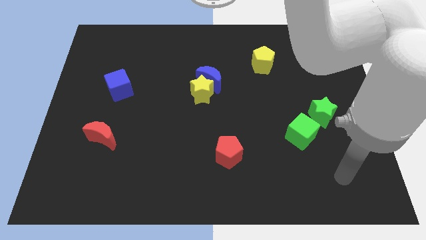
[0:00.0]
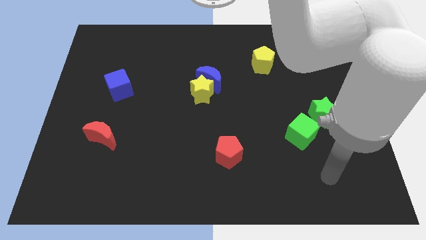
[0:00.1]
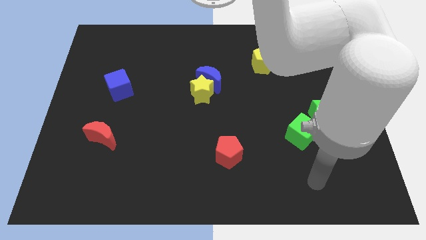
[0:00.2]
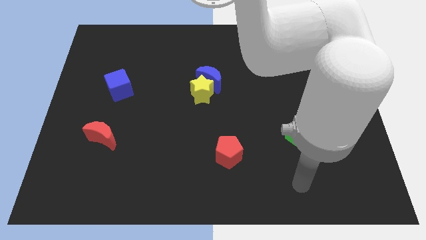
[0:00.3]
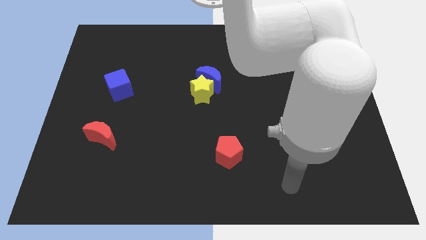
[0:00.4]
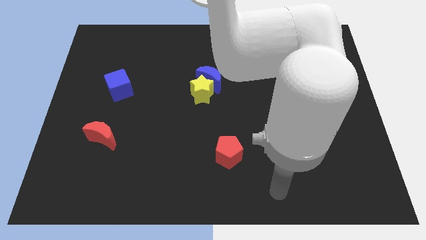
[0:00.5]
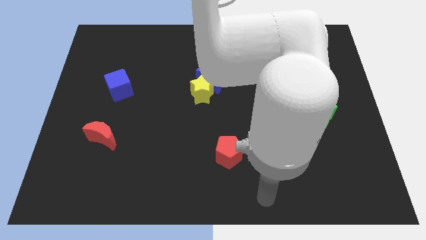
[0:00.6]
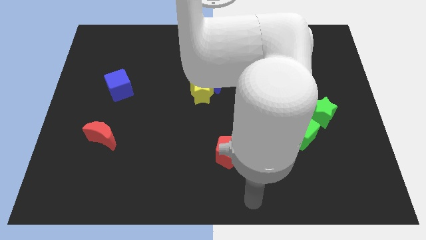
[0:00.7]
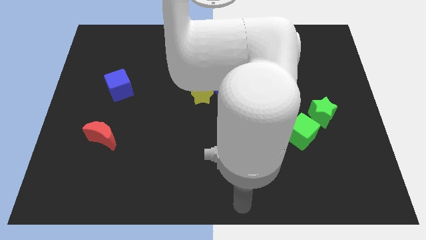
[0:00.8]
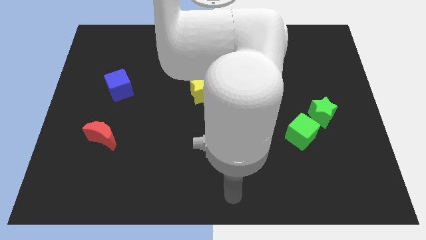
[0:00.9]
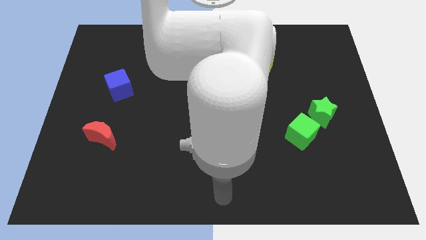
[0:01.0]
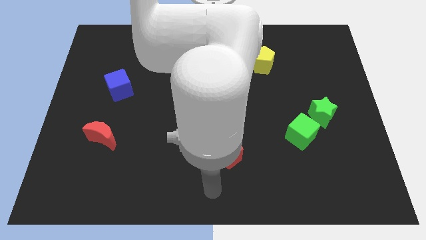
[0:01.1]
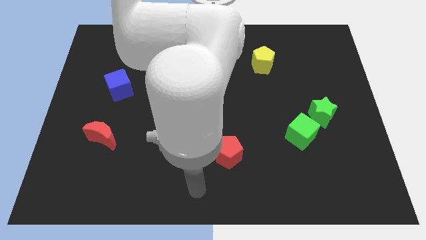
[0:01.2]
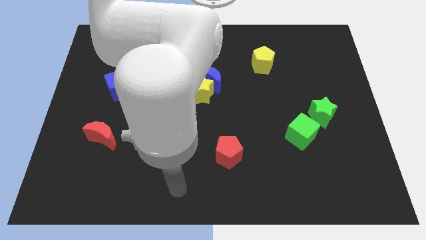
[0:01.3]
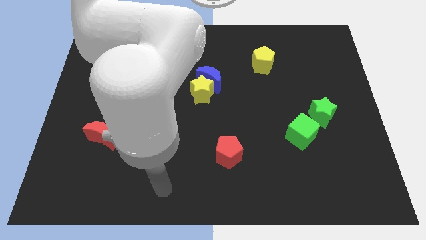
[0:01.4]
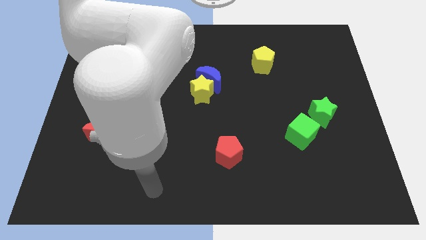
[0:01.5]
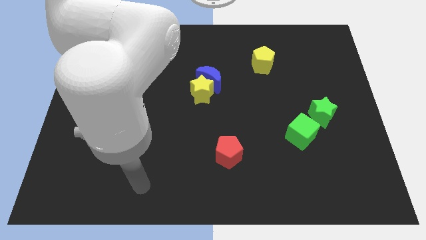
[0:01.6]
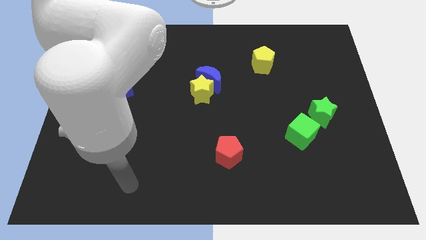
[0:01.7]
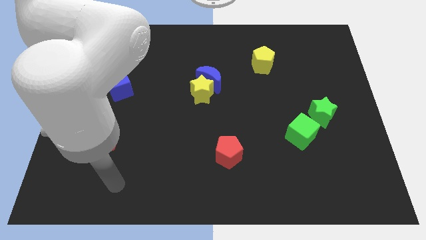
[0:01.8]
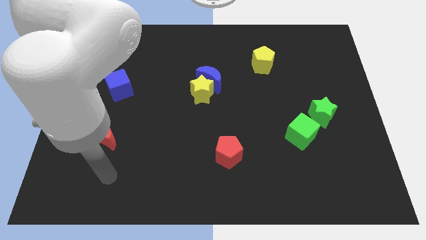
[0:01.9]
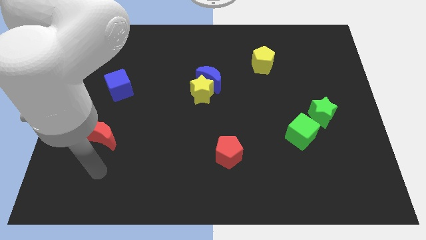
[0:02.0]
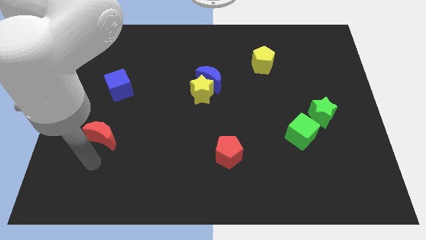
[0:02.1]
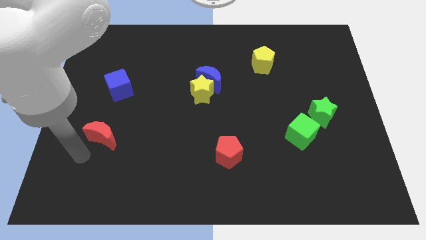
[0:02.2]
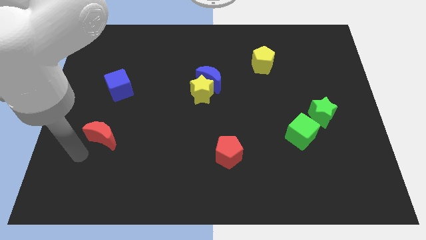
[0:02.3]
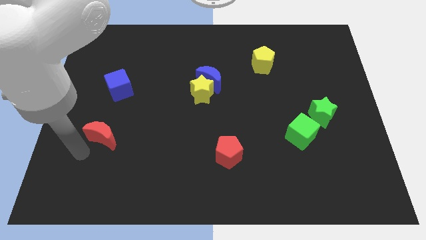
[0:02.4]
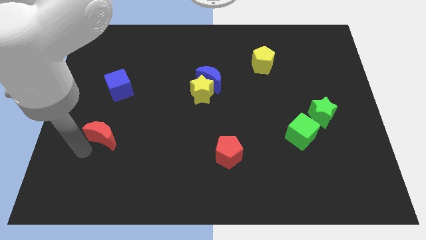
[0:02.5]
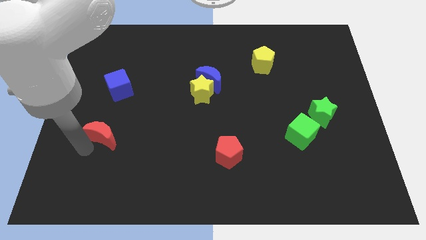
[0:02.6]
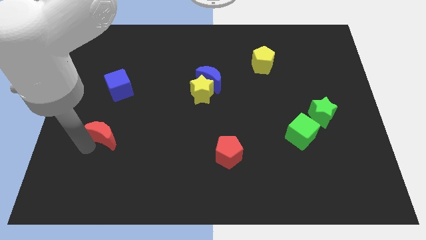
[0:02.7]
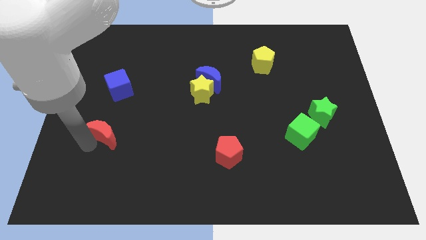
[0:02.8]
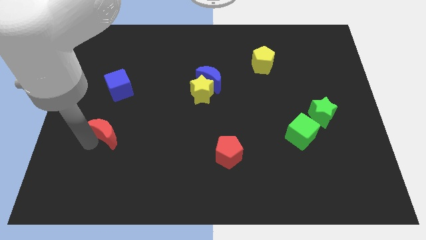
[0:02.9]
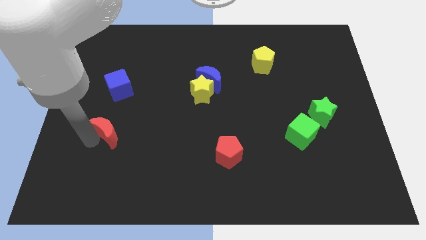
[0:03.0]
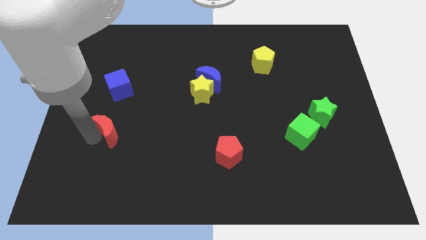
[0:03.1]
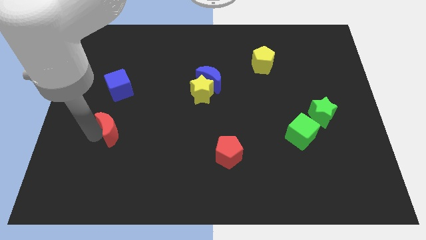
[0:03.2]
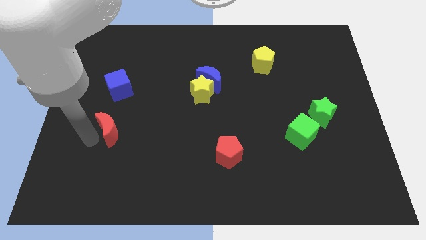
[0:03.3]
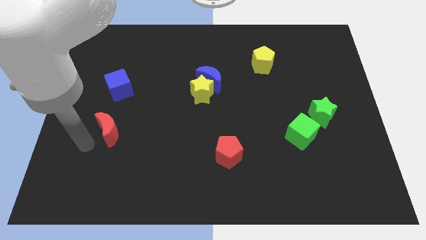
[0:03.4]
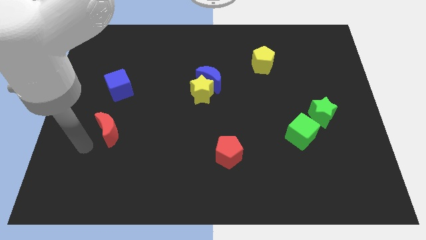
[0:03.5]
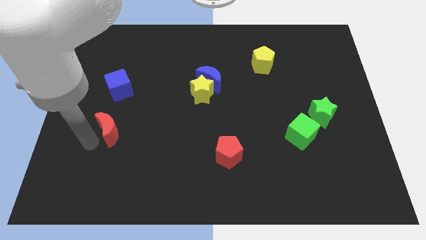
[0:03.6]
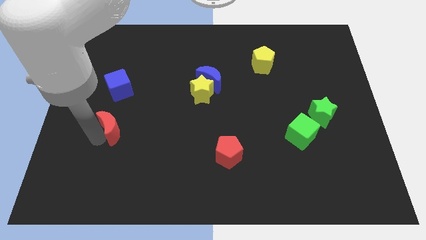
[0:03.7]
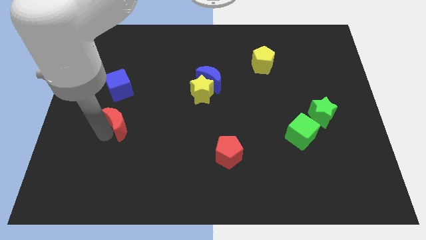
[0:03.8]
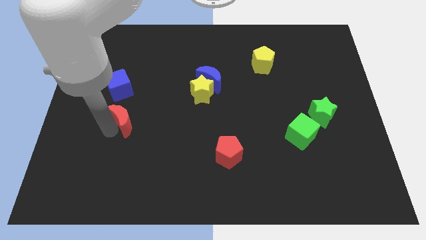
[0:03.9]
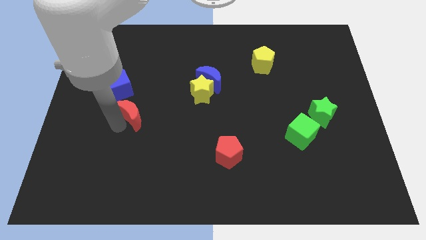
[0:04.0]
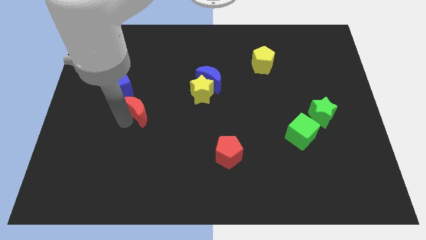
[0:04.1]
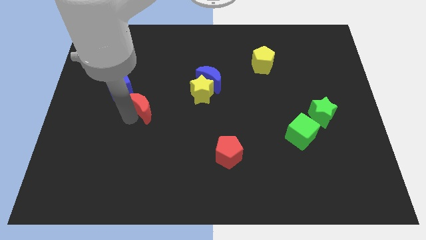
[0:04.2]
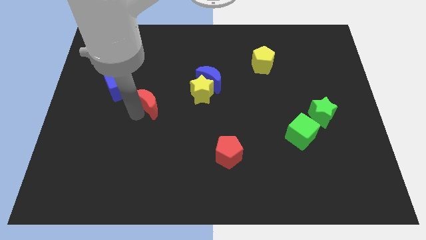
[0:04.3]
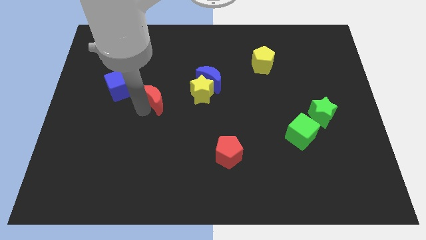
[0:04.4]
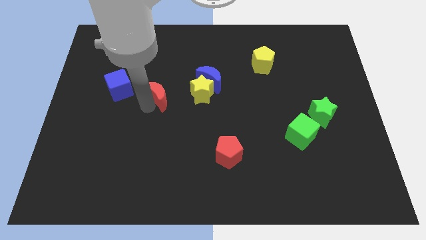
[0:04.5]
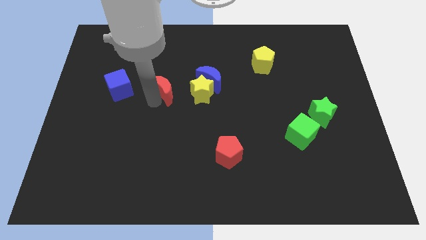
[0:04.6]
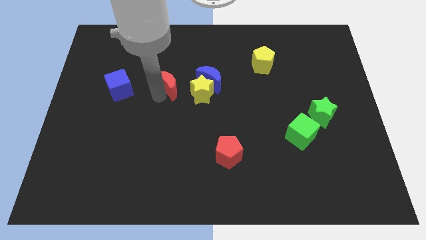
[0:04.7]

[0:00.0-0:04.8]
move the red moon diagonally up and right

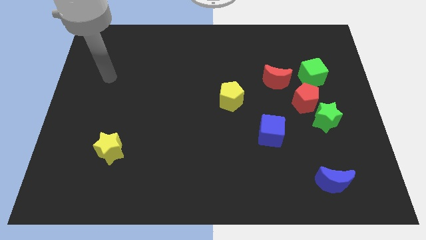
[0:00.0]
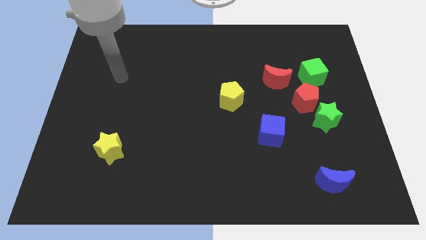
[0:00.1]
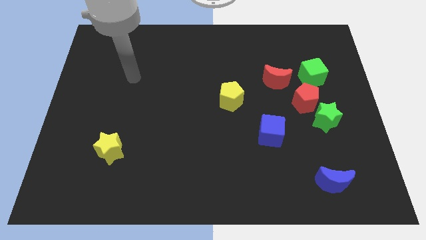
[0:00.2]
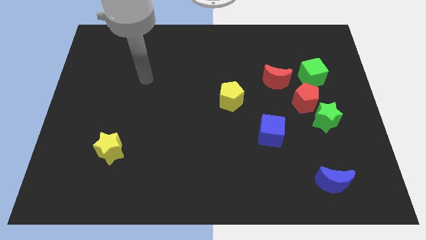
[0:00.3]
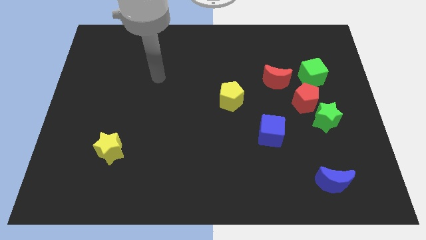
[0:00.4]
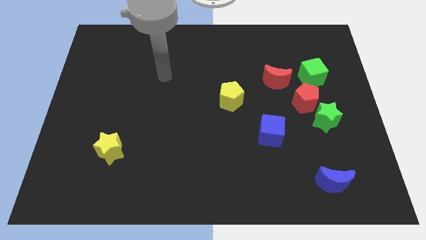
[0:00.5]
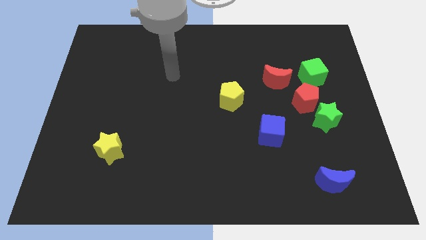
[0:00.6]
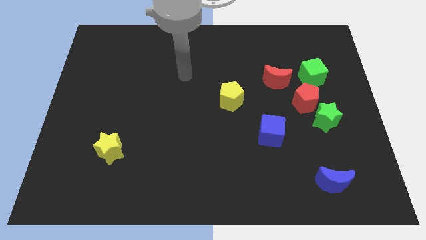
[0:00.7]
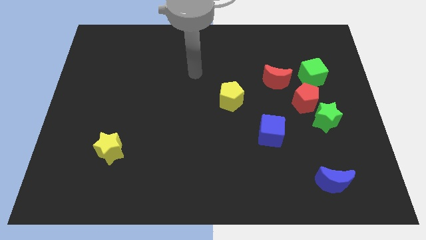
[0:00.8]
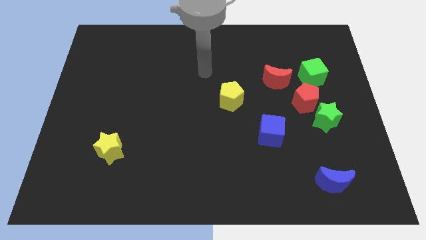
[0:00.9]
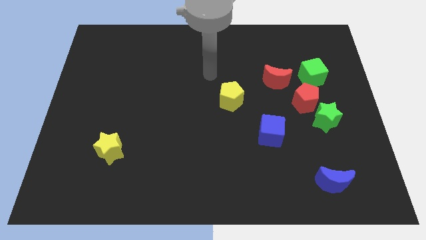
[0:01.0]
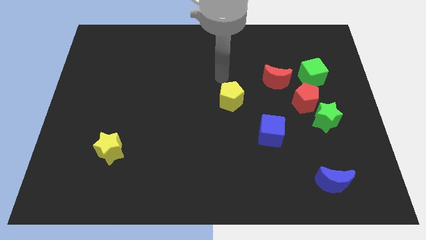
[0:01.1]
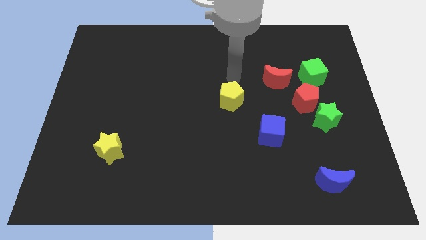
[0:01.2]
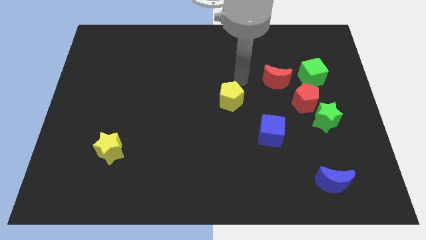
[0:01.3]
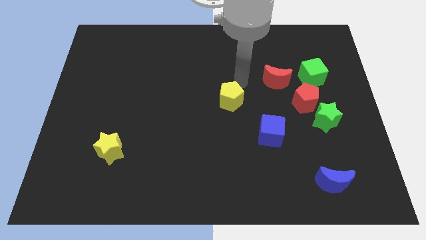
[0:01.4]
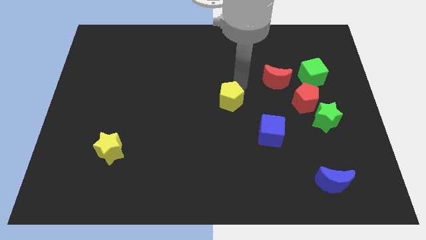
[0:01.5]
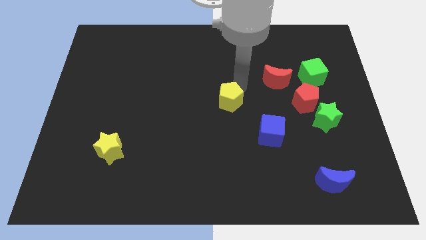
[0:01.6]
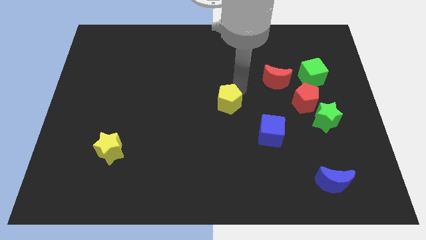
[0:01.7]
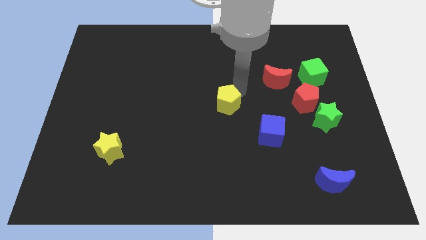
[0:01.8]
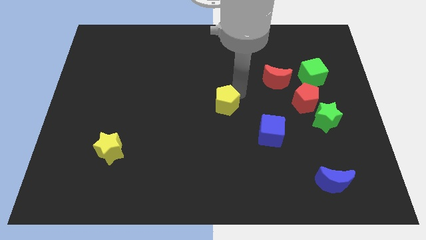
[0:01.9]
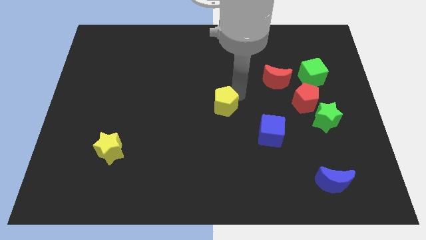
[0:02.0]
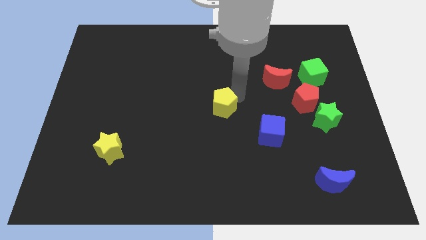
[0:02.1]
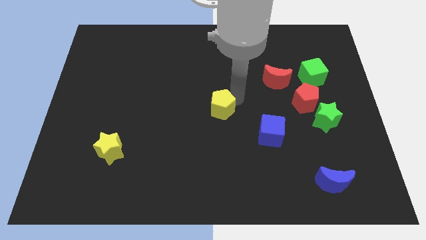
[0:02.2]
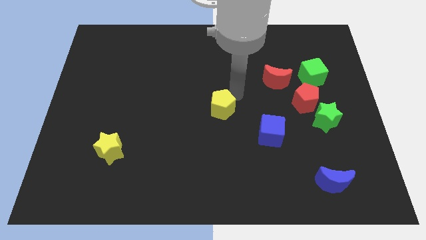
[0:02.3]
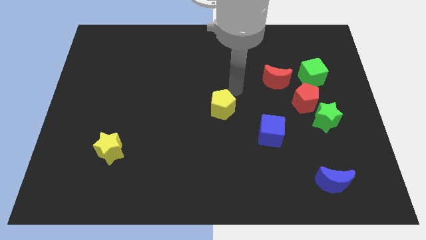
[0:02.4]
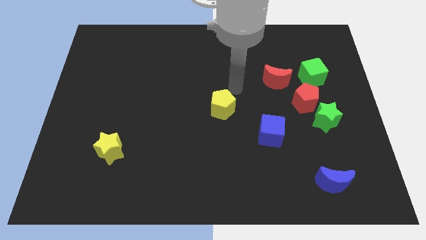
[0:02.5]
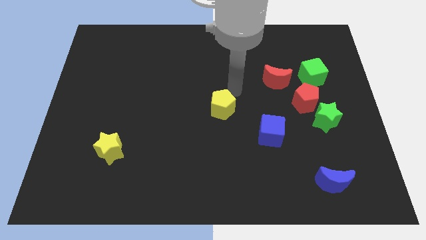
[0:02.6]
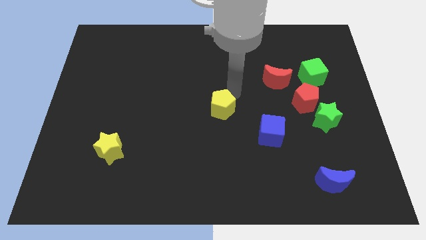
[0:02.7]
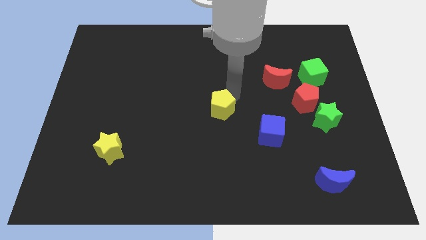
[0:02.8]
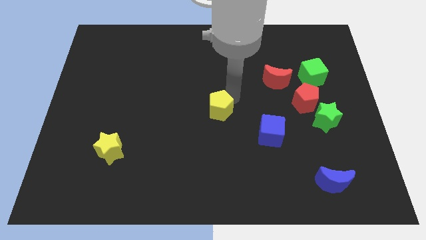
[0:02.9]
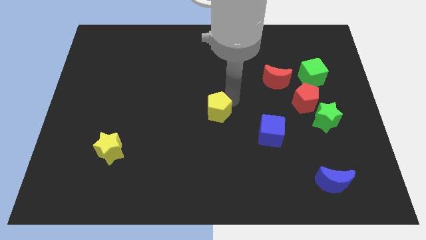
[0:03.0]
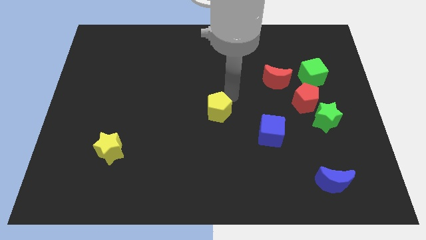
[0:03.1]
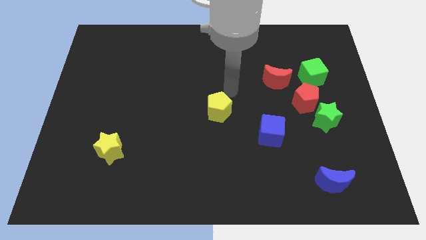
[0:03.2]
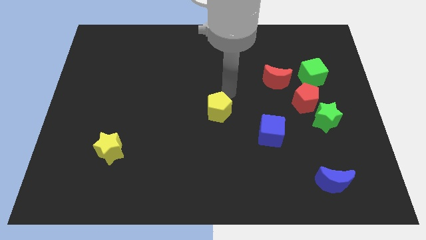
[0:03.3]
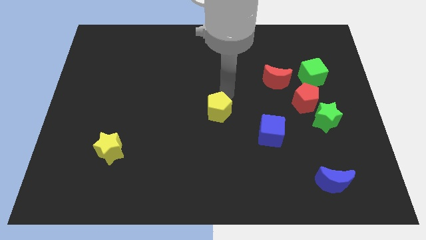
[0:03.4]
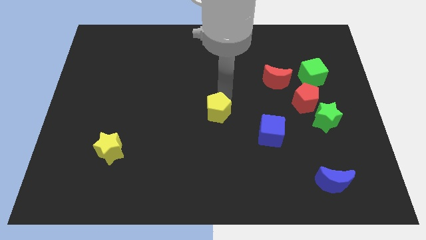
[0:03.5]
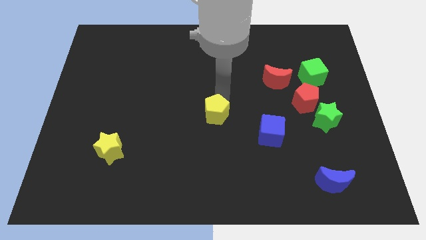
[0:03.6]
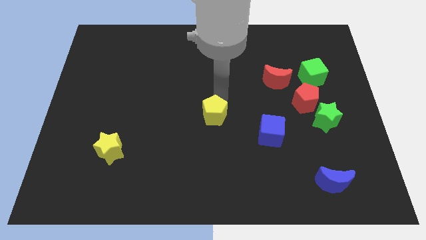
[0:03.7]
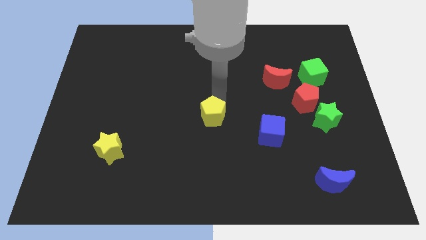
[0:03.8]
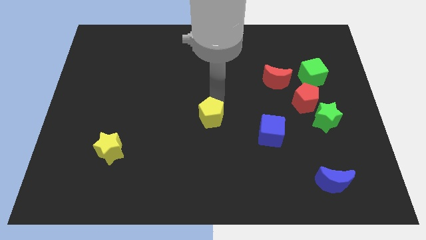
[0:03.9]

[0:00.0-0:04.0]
slightly push the yellow pentagon downwards and left diagonally
